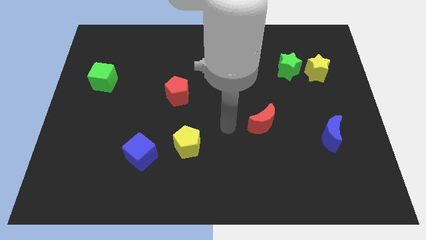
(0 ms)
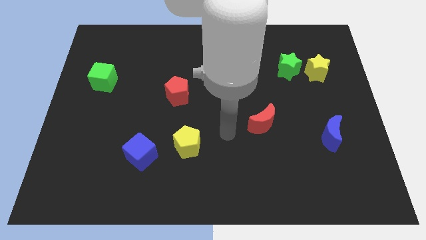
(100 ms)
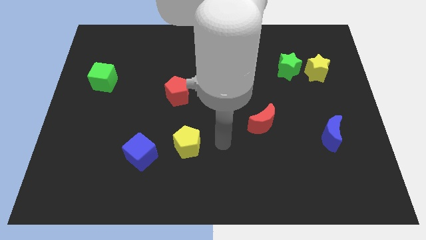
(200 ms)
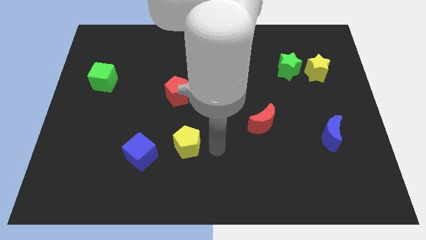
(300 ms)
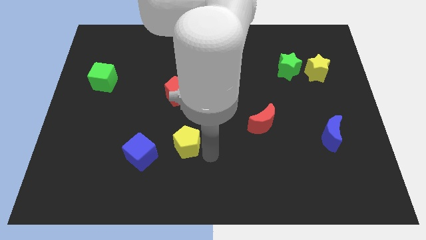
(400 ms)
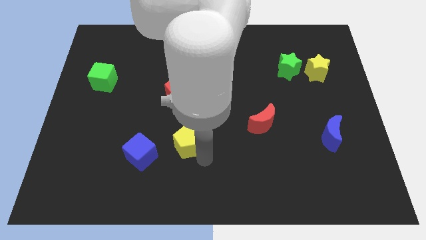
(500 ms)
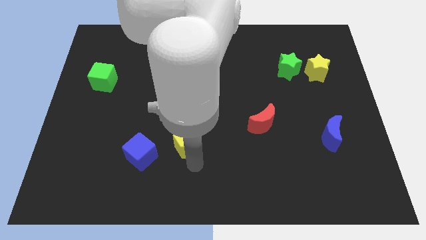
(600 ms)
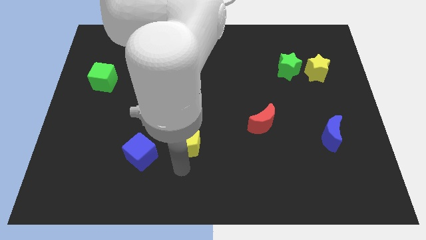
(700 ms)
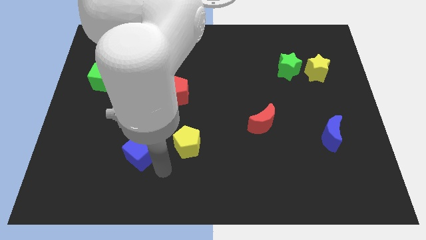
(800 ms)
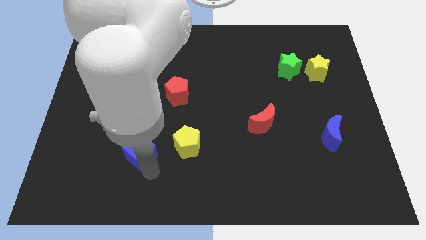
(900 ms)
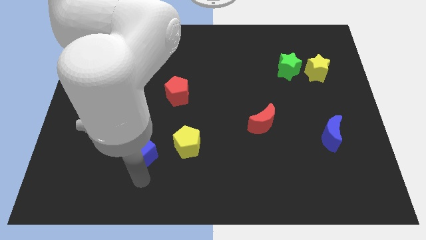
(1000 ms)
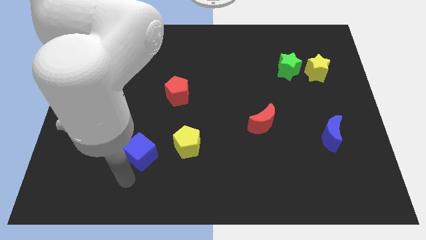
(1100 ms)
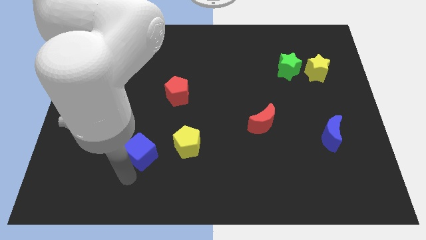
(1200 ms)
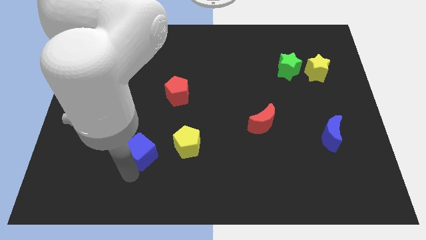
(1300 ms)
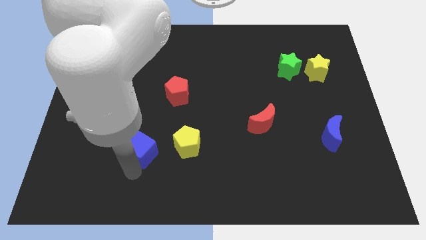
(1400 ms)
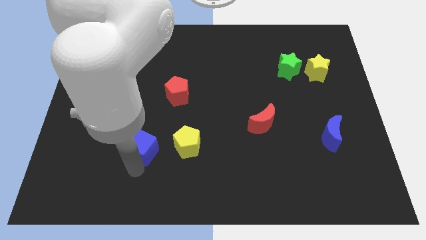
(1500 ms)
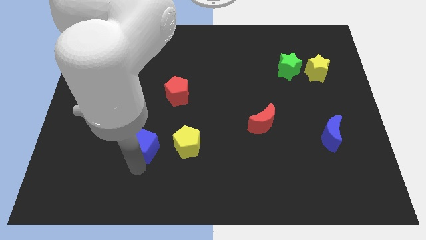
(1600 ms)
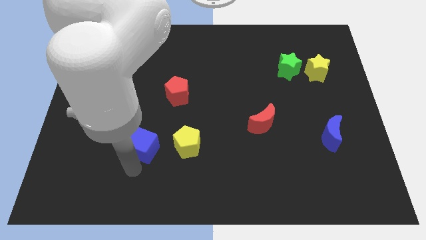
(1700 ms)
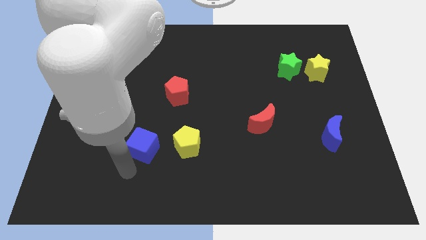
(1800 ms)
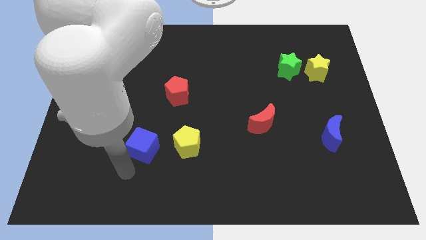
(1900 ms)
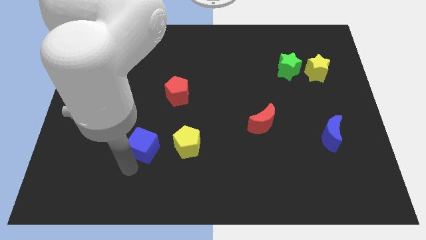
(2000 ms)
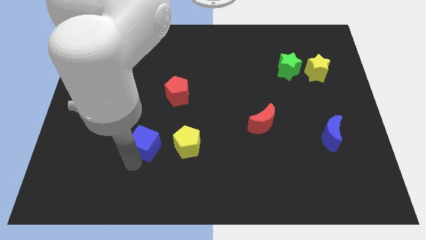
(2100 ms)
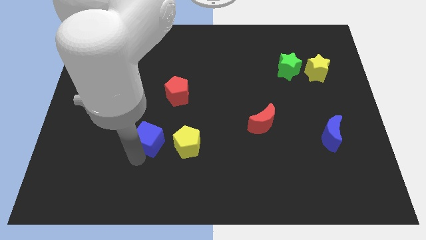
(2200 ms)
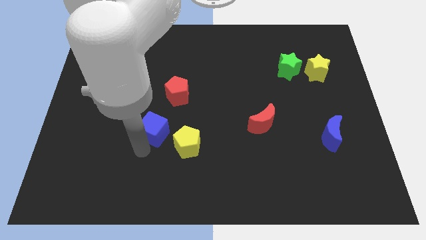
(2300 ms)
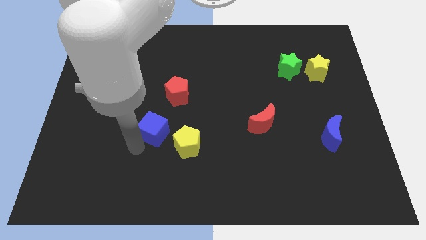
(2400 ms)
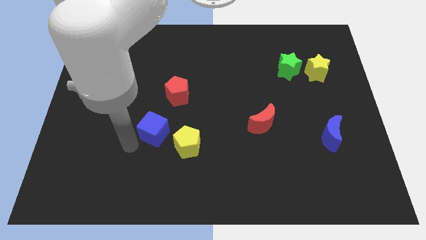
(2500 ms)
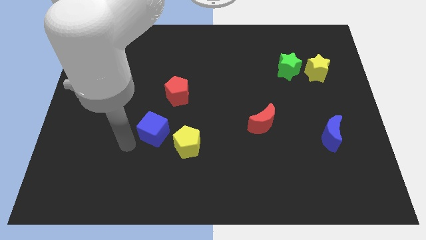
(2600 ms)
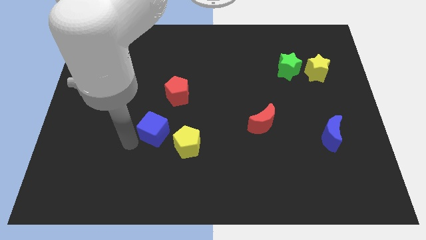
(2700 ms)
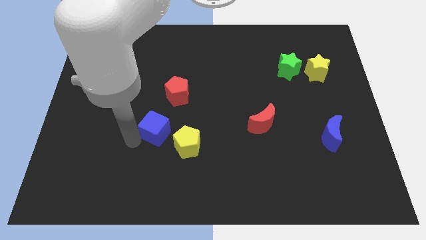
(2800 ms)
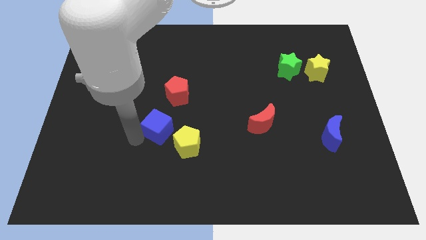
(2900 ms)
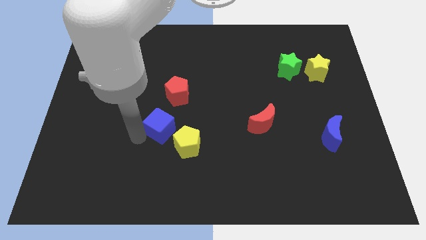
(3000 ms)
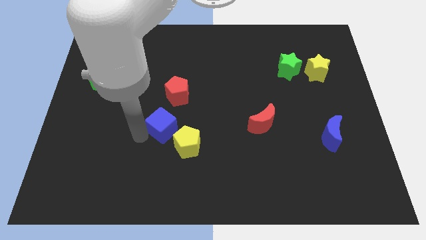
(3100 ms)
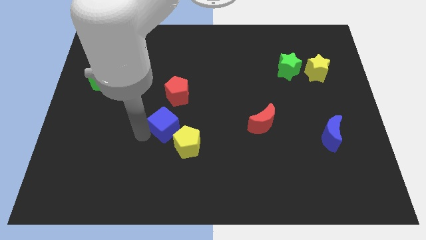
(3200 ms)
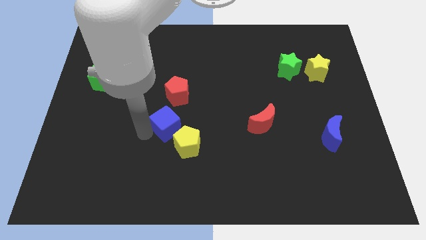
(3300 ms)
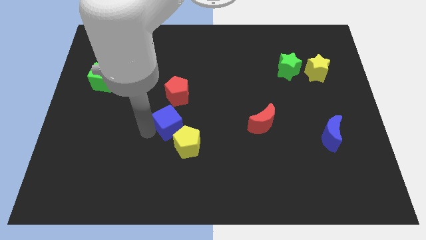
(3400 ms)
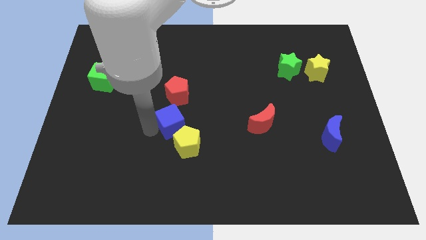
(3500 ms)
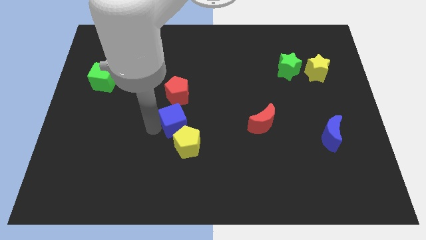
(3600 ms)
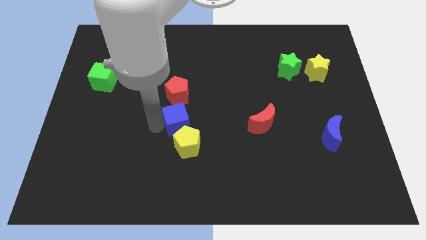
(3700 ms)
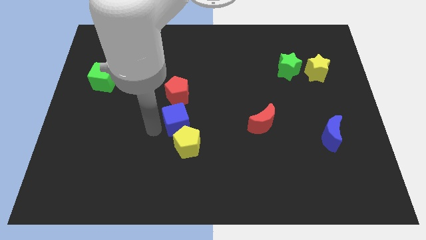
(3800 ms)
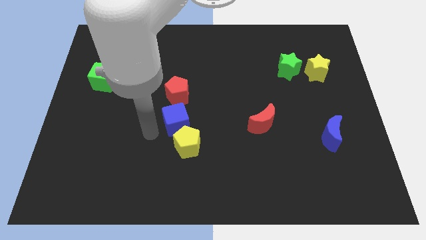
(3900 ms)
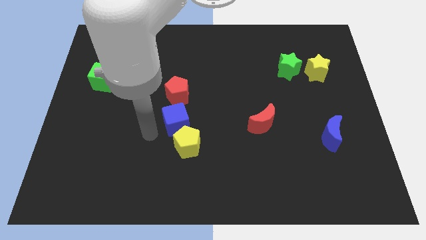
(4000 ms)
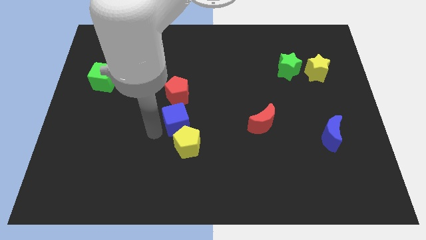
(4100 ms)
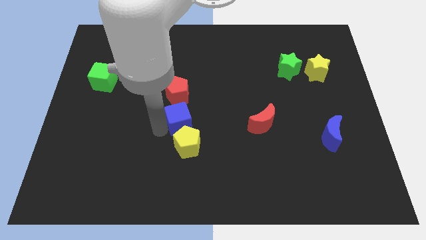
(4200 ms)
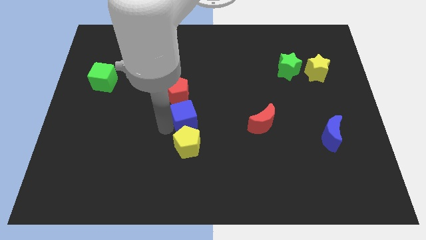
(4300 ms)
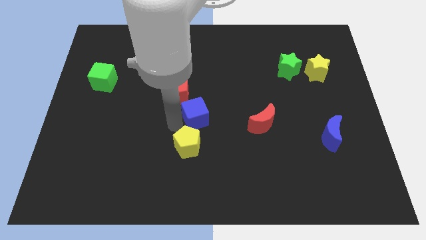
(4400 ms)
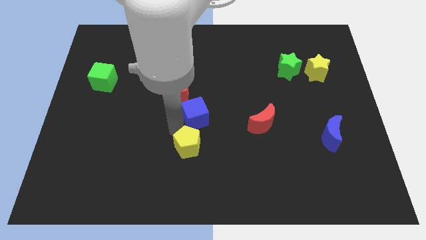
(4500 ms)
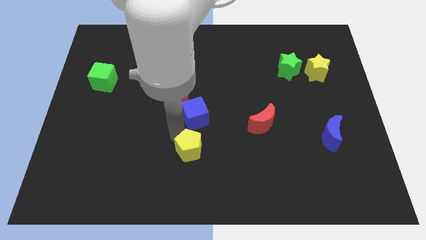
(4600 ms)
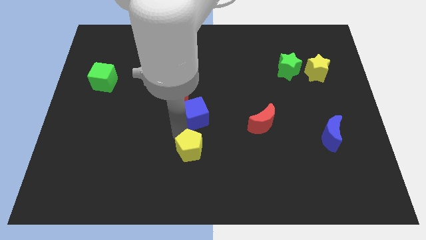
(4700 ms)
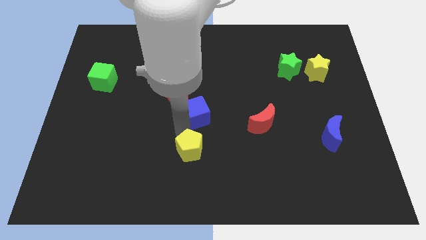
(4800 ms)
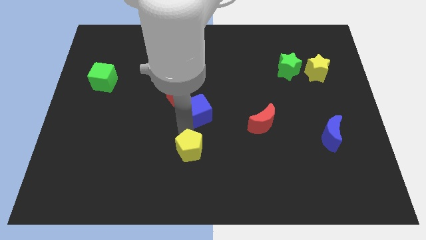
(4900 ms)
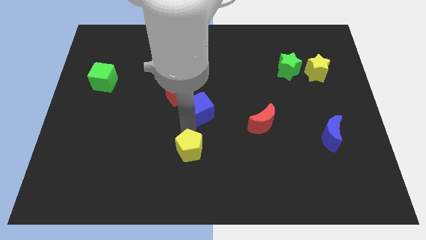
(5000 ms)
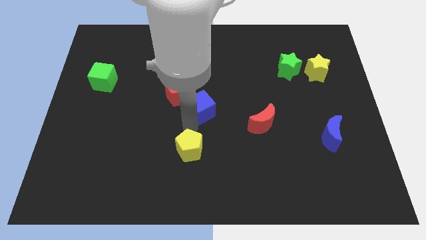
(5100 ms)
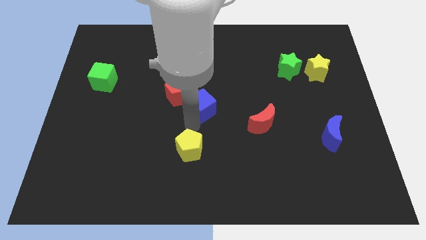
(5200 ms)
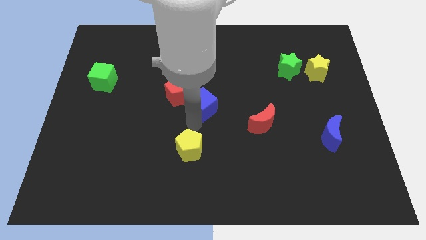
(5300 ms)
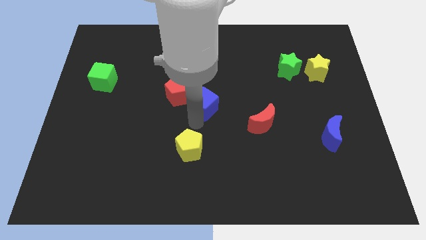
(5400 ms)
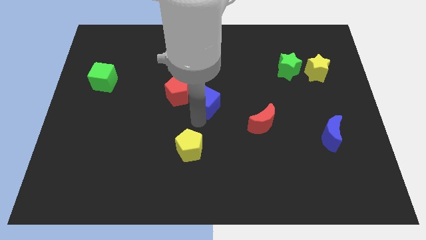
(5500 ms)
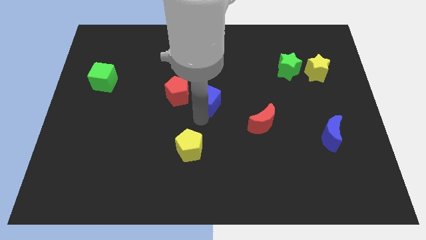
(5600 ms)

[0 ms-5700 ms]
push the blue cube diagonally up and to the right

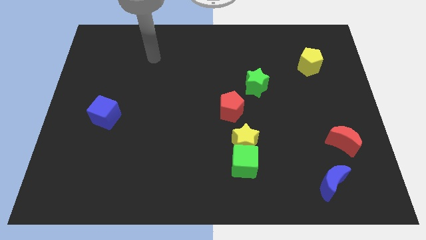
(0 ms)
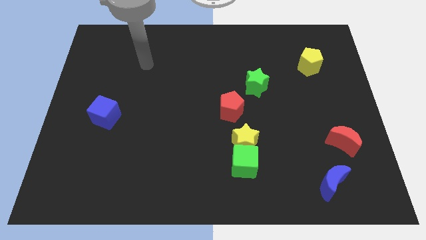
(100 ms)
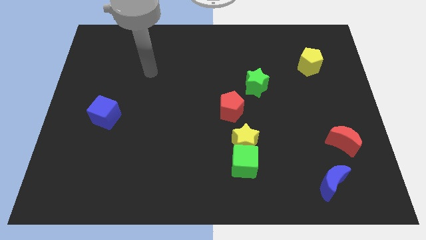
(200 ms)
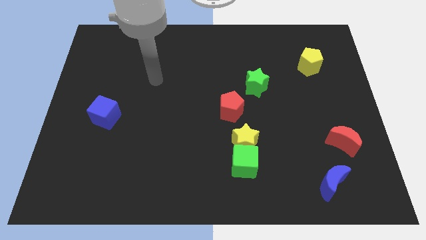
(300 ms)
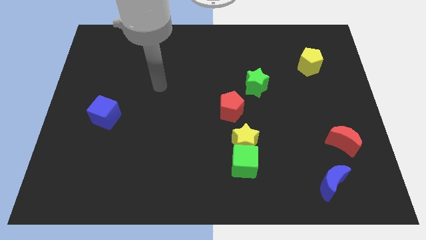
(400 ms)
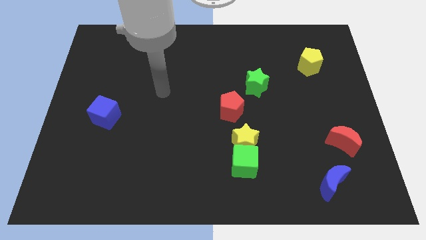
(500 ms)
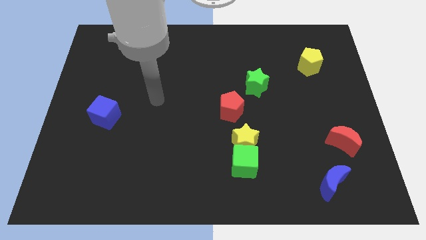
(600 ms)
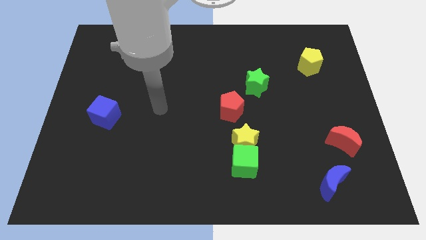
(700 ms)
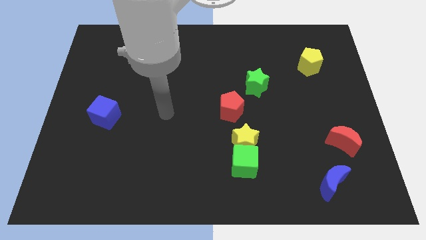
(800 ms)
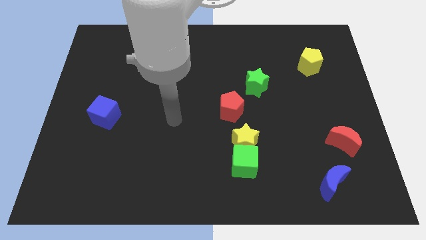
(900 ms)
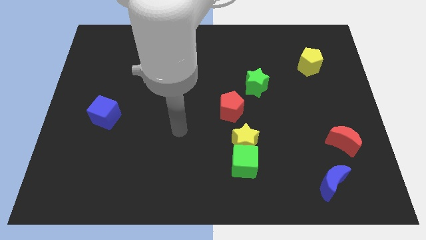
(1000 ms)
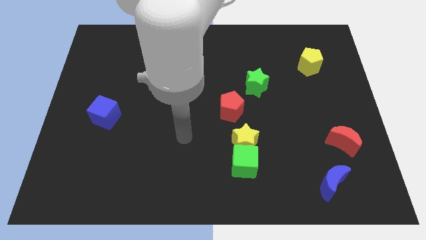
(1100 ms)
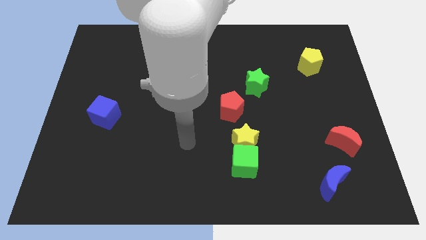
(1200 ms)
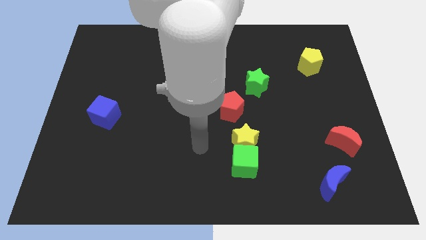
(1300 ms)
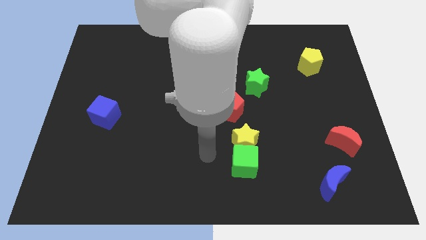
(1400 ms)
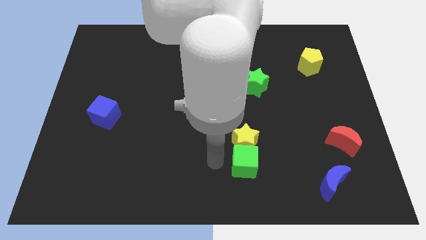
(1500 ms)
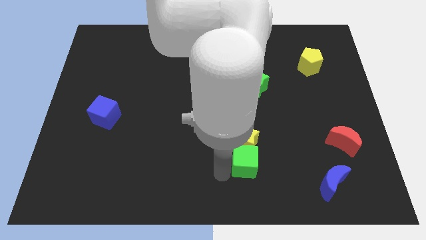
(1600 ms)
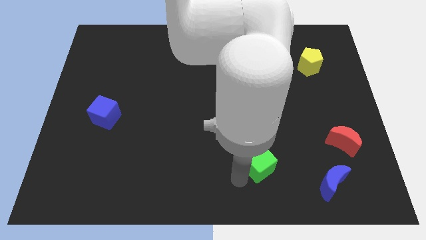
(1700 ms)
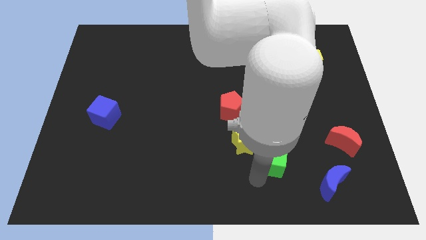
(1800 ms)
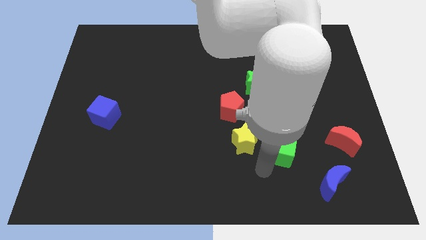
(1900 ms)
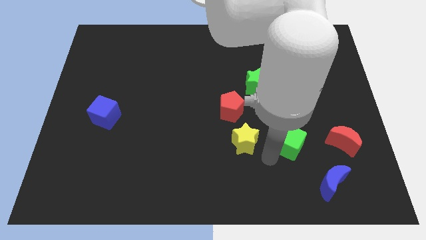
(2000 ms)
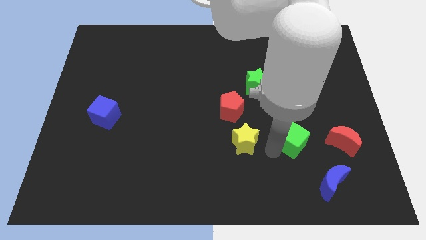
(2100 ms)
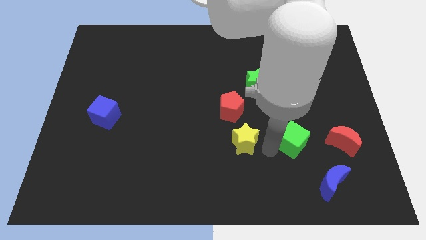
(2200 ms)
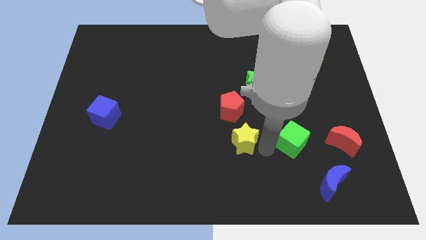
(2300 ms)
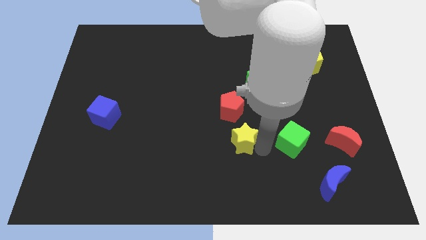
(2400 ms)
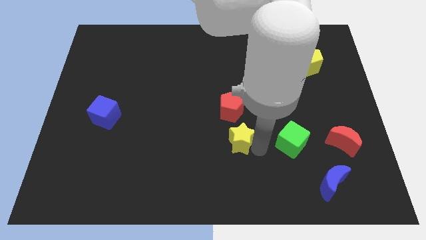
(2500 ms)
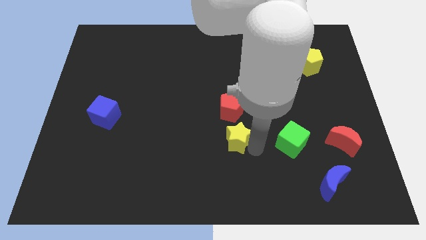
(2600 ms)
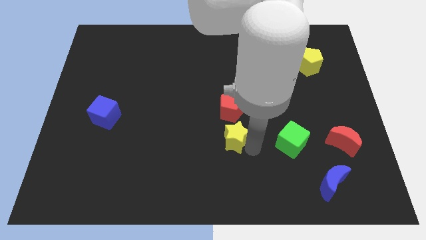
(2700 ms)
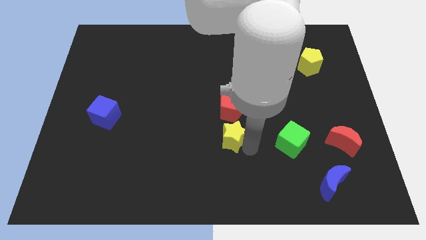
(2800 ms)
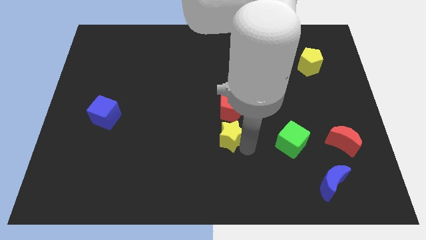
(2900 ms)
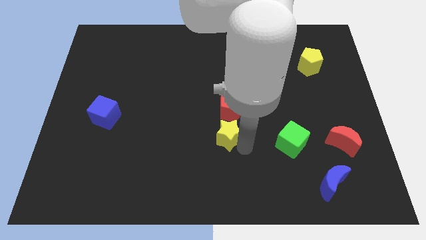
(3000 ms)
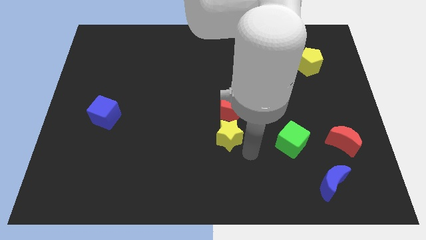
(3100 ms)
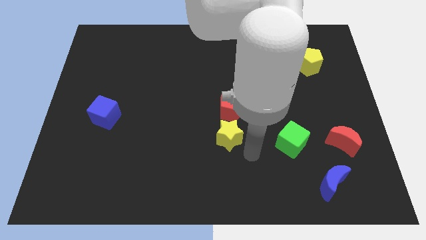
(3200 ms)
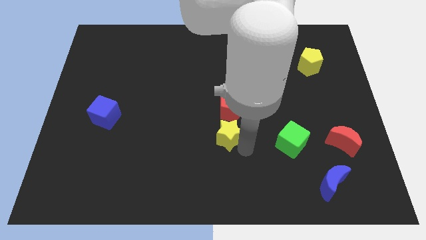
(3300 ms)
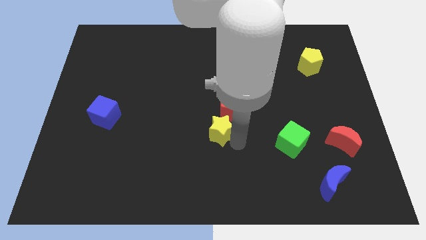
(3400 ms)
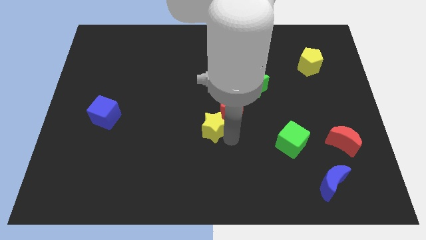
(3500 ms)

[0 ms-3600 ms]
slightly slide the yellow star up and left
